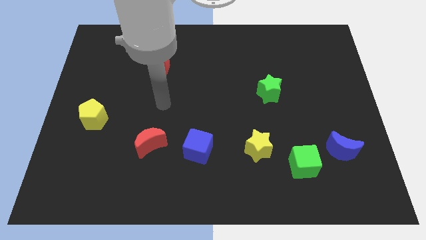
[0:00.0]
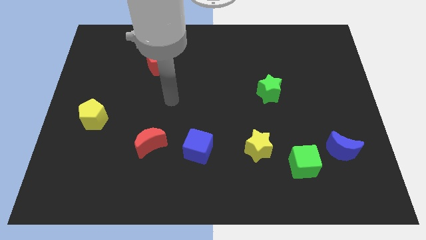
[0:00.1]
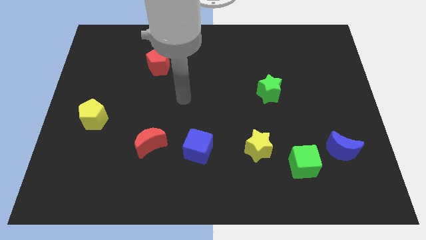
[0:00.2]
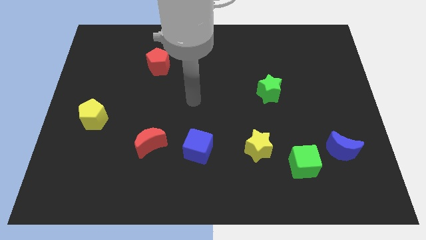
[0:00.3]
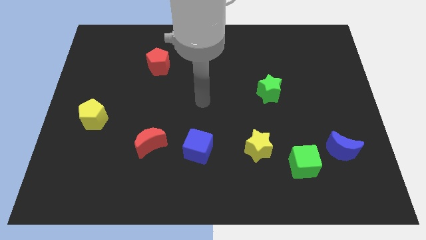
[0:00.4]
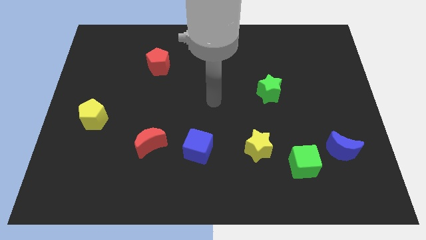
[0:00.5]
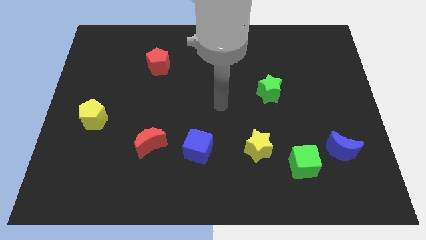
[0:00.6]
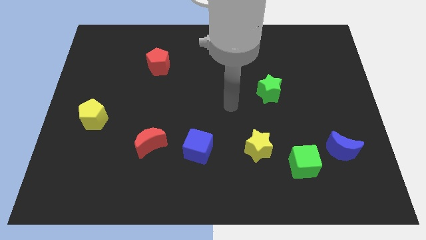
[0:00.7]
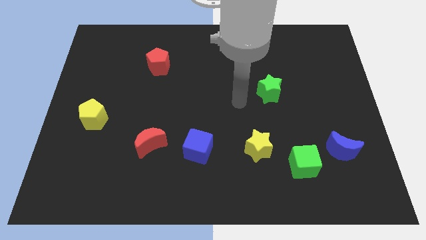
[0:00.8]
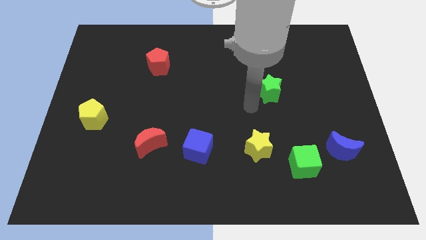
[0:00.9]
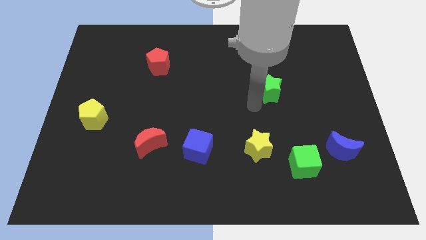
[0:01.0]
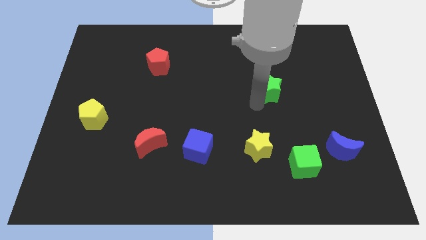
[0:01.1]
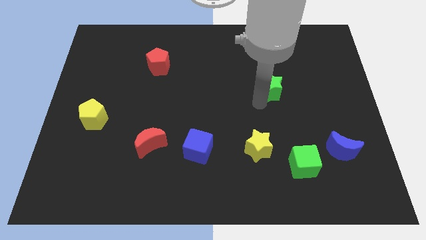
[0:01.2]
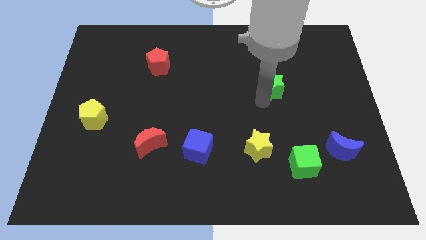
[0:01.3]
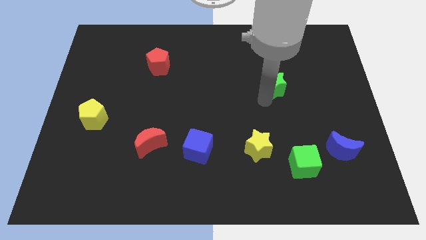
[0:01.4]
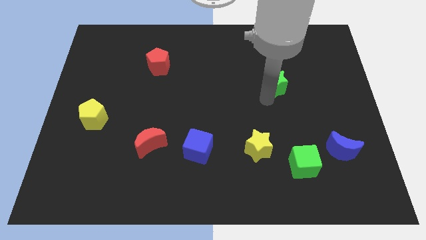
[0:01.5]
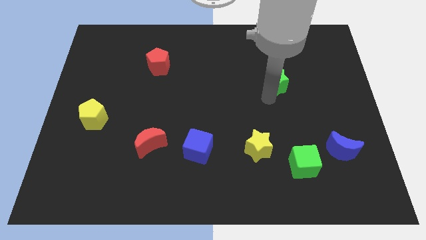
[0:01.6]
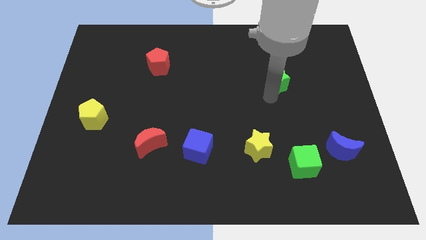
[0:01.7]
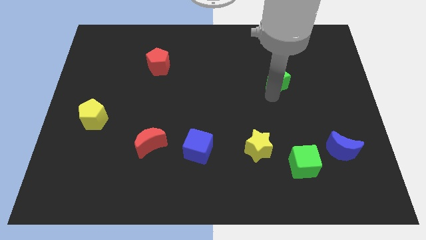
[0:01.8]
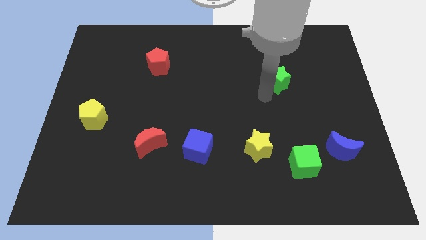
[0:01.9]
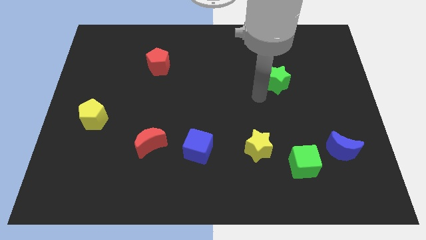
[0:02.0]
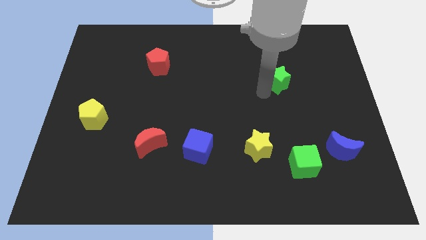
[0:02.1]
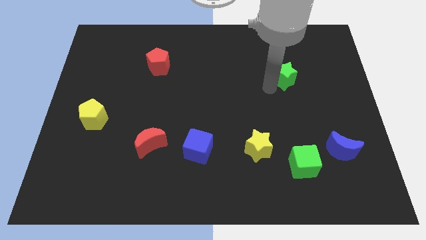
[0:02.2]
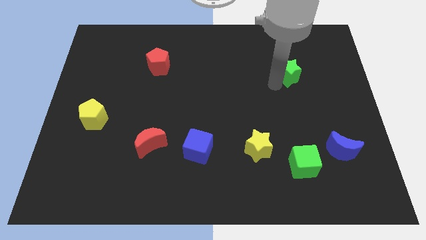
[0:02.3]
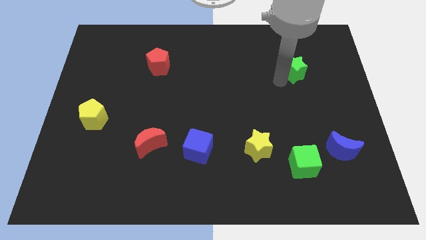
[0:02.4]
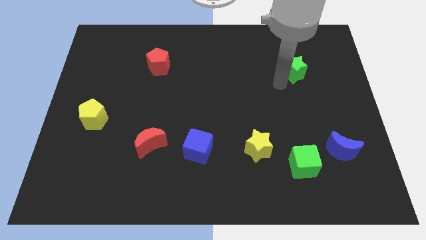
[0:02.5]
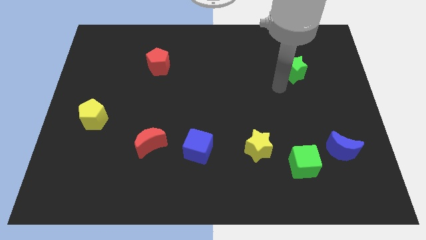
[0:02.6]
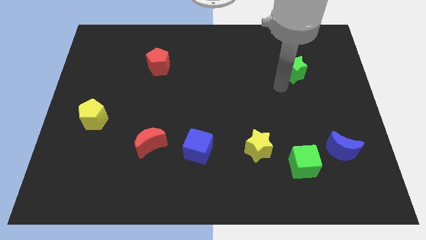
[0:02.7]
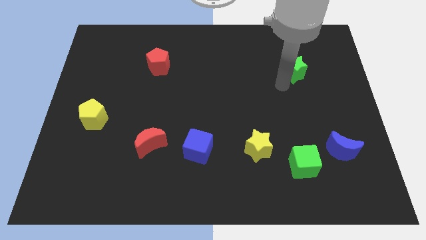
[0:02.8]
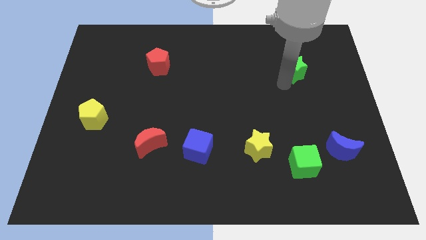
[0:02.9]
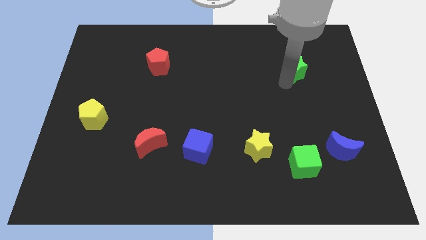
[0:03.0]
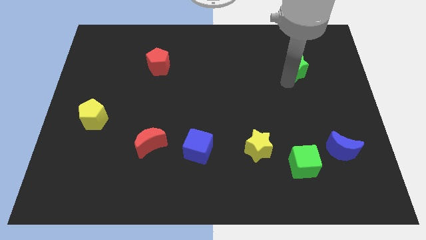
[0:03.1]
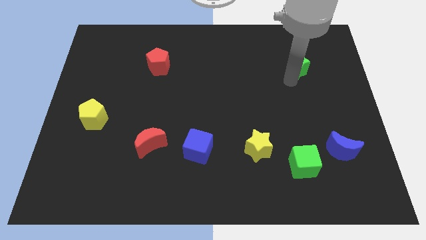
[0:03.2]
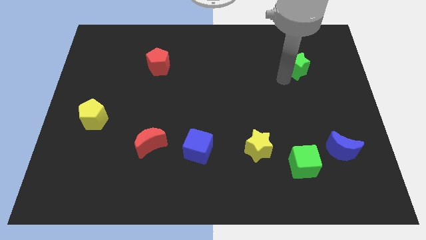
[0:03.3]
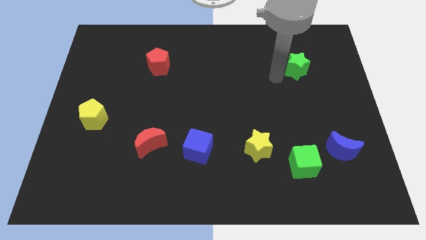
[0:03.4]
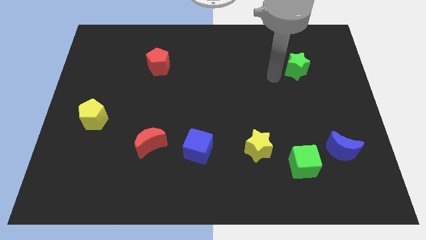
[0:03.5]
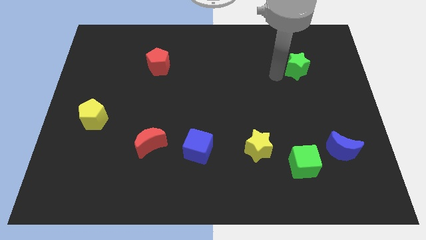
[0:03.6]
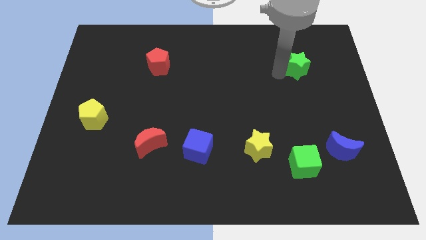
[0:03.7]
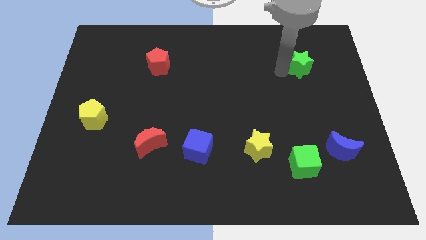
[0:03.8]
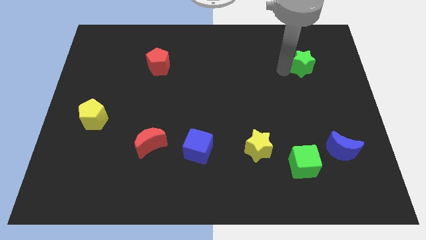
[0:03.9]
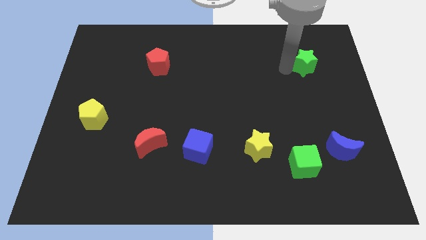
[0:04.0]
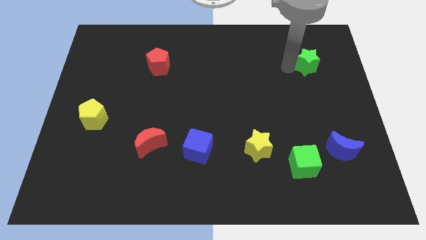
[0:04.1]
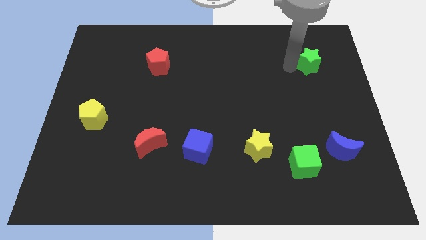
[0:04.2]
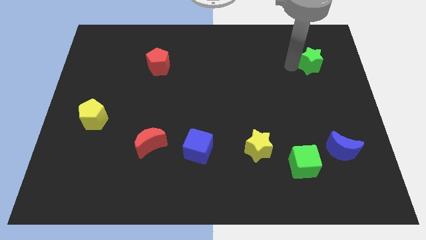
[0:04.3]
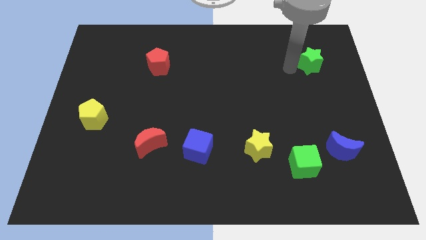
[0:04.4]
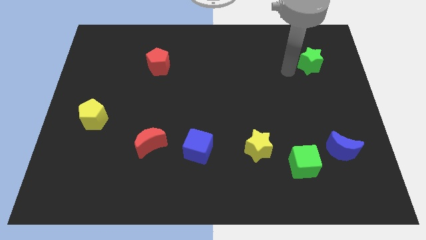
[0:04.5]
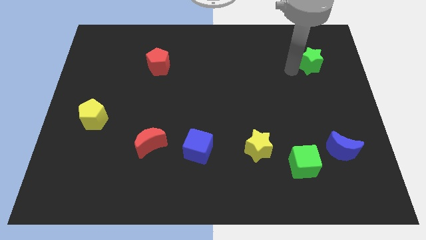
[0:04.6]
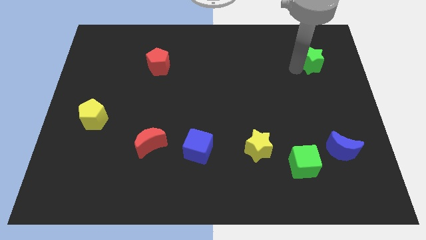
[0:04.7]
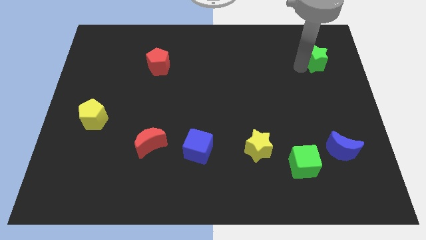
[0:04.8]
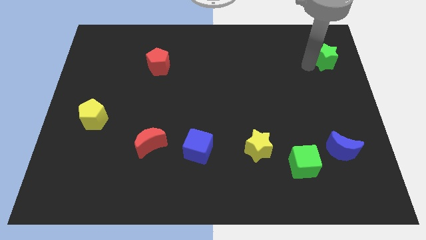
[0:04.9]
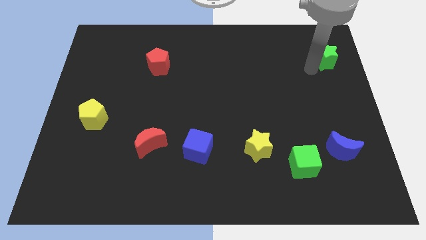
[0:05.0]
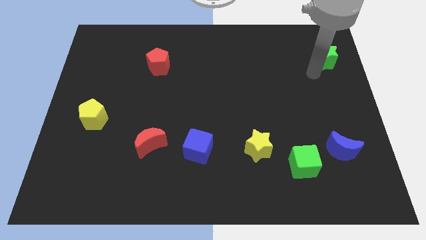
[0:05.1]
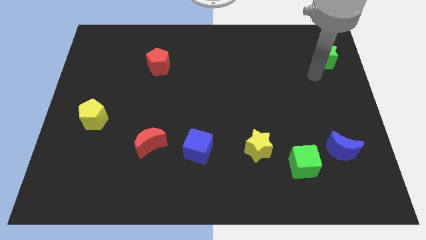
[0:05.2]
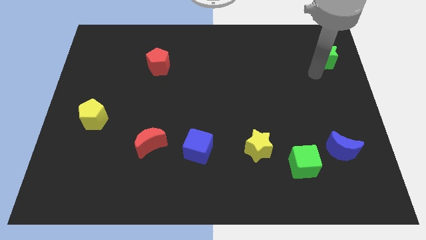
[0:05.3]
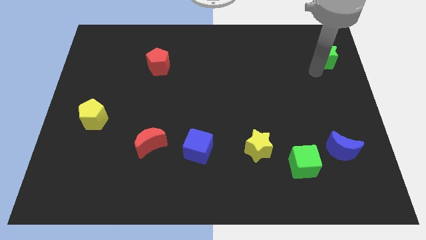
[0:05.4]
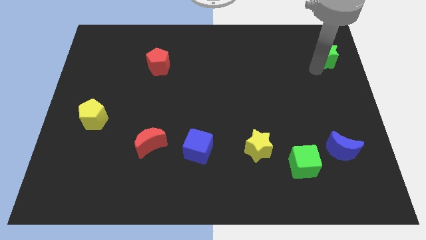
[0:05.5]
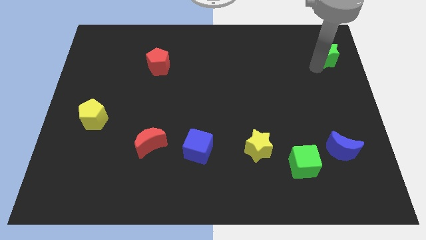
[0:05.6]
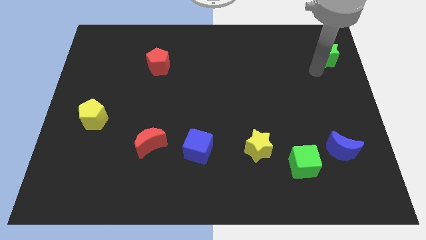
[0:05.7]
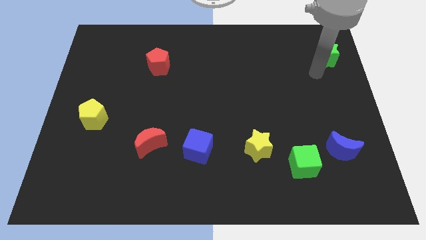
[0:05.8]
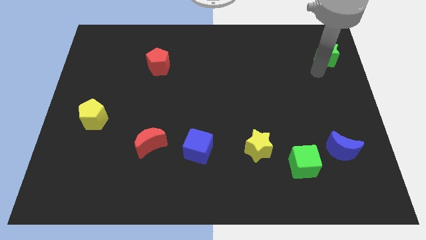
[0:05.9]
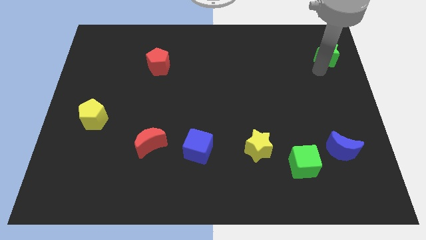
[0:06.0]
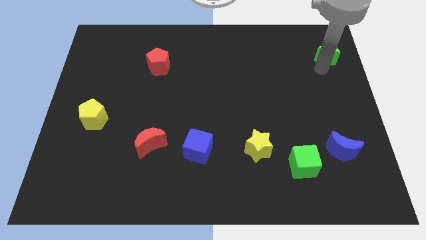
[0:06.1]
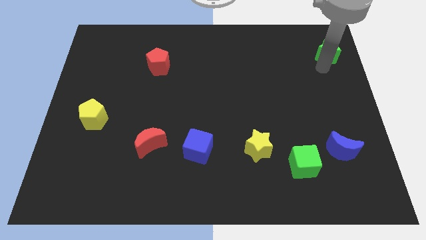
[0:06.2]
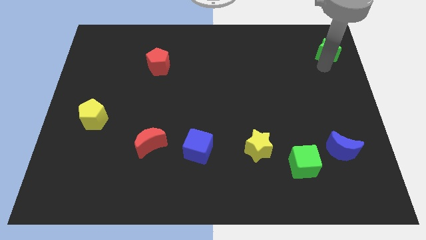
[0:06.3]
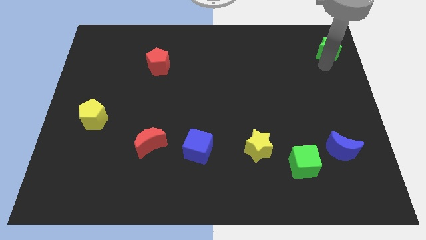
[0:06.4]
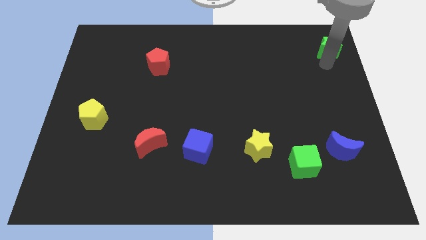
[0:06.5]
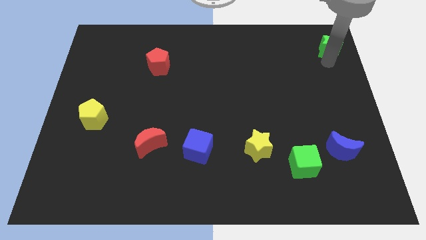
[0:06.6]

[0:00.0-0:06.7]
slide the green star to the top right
